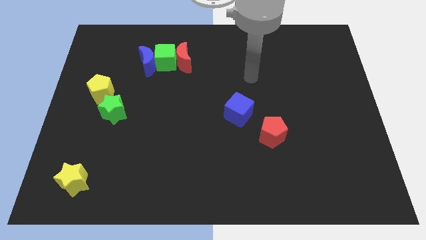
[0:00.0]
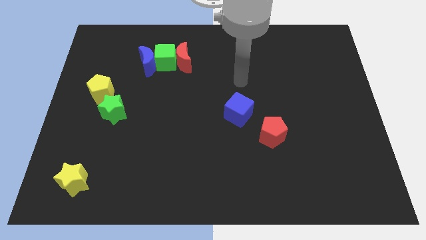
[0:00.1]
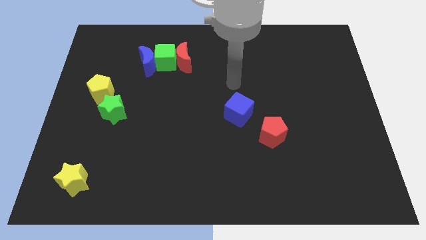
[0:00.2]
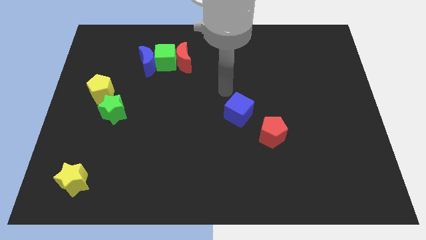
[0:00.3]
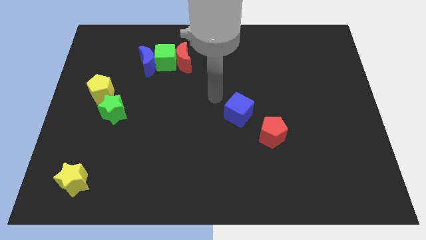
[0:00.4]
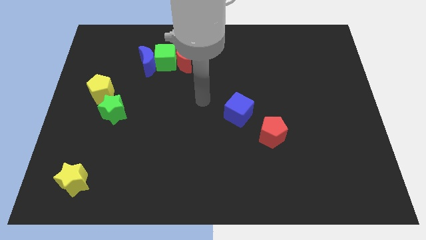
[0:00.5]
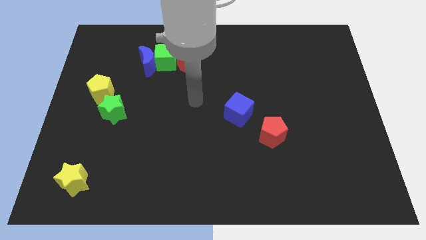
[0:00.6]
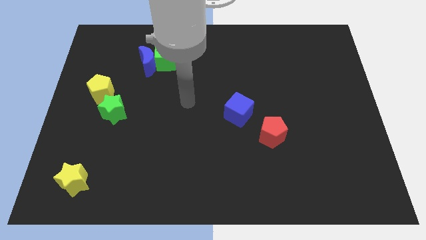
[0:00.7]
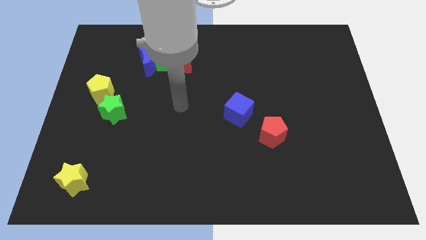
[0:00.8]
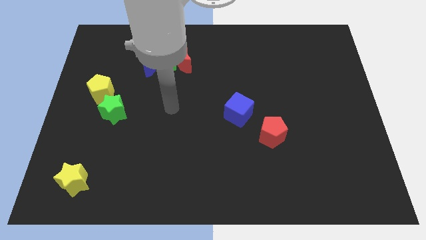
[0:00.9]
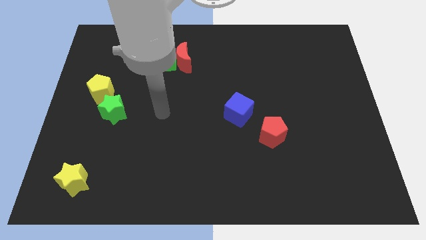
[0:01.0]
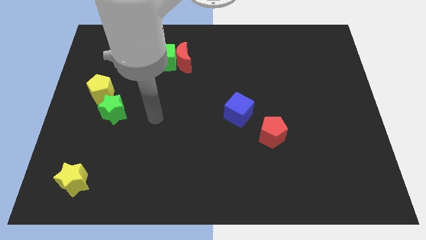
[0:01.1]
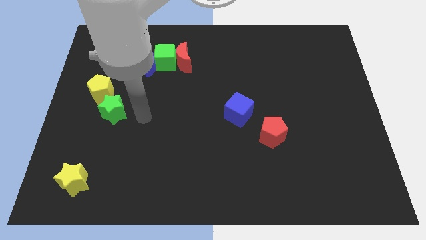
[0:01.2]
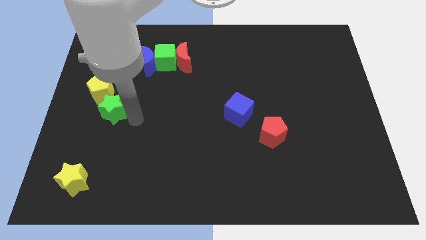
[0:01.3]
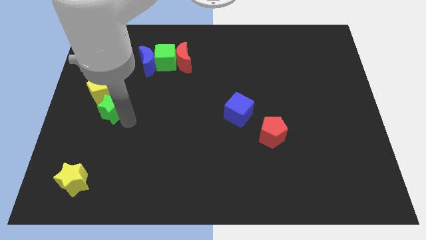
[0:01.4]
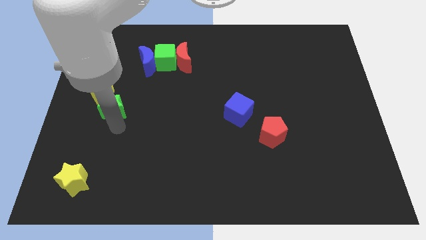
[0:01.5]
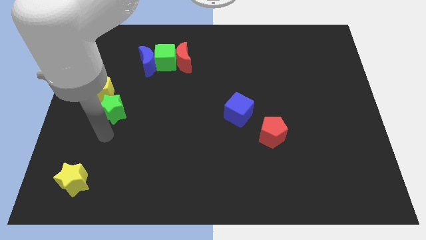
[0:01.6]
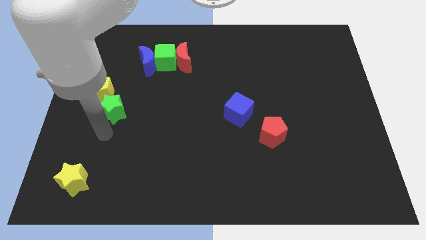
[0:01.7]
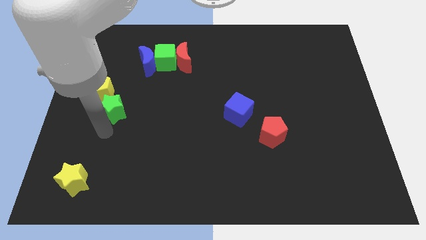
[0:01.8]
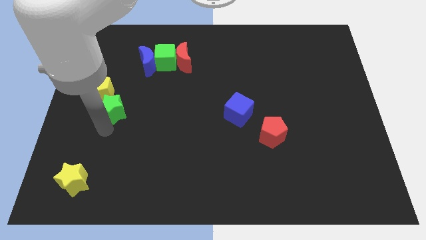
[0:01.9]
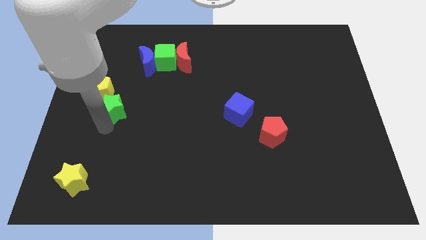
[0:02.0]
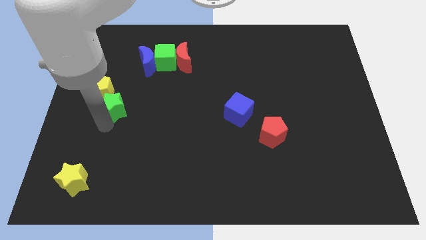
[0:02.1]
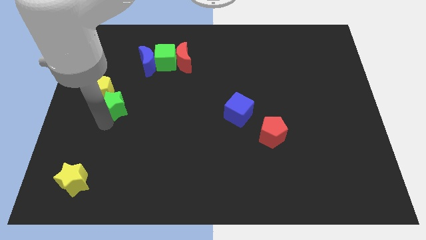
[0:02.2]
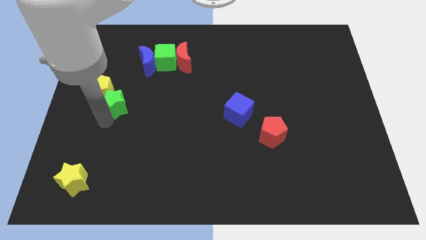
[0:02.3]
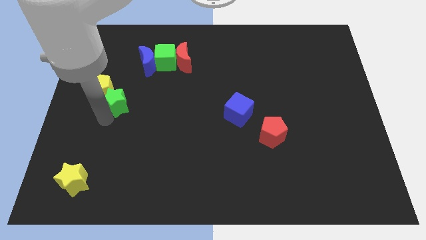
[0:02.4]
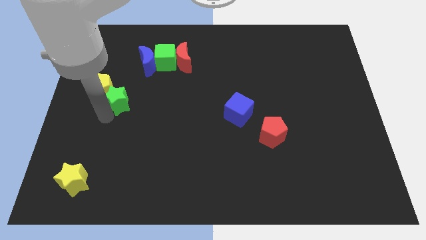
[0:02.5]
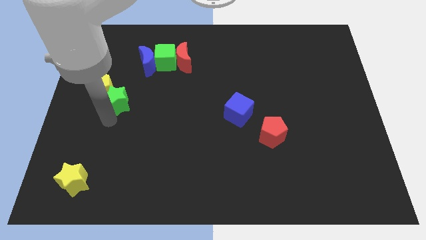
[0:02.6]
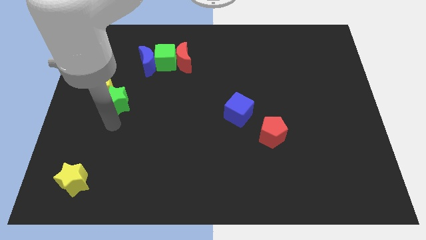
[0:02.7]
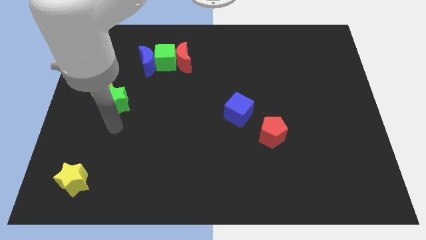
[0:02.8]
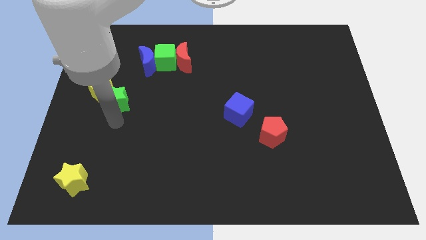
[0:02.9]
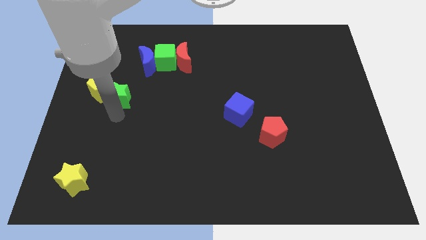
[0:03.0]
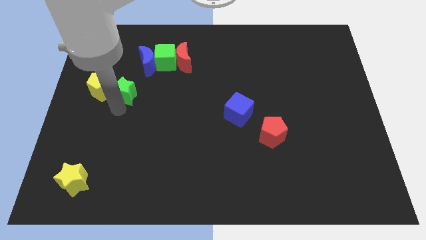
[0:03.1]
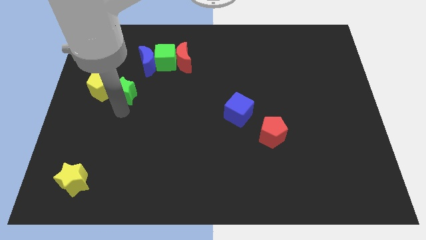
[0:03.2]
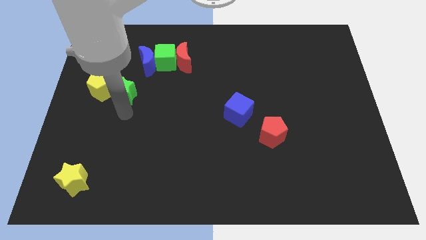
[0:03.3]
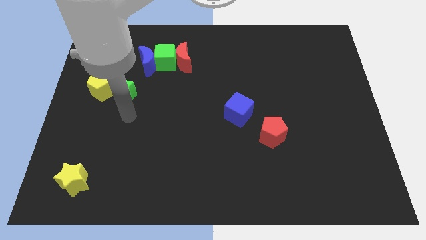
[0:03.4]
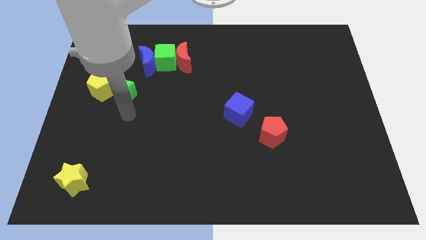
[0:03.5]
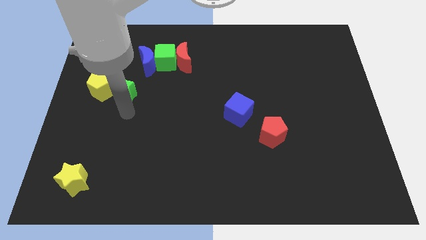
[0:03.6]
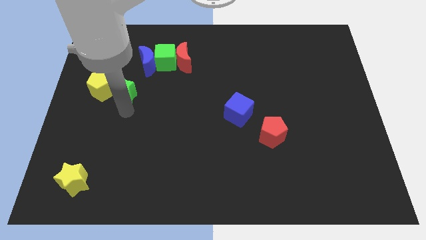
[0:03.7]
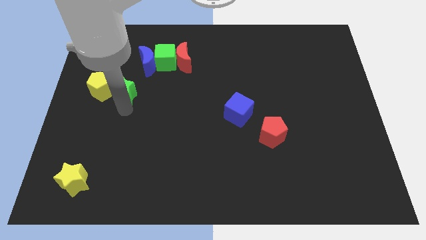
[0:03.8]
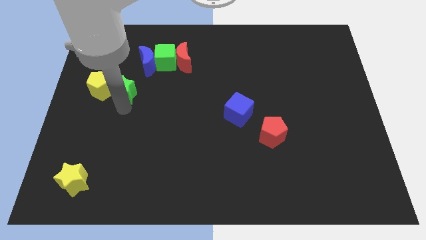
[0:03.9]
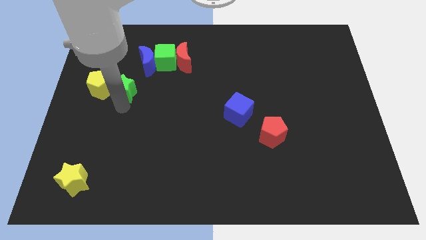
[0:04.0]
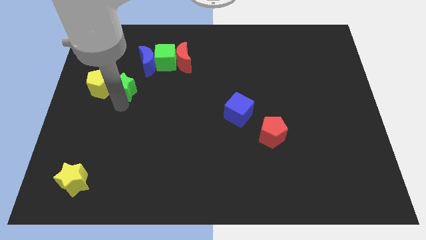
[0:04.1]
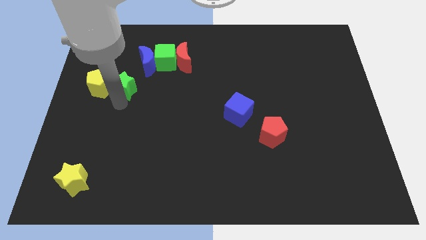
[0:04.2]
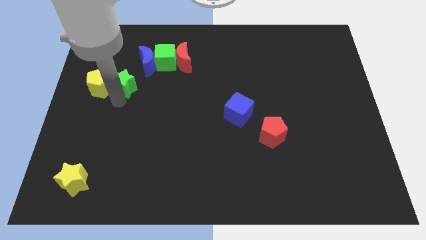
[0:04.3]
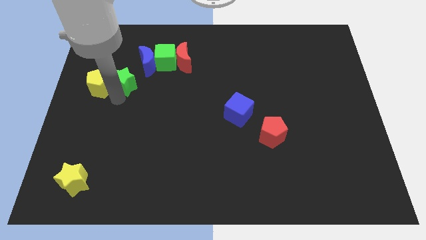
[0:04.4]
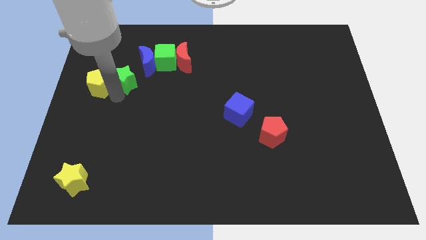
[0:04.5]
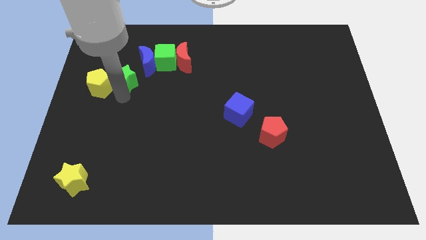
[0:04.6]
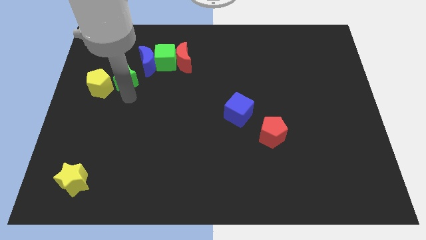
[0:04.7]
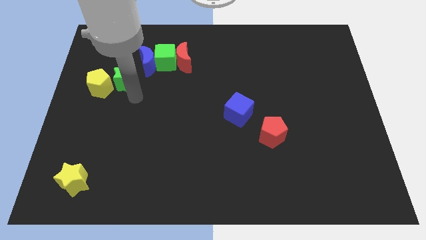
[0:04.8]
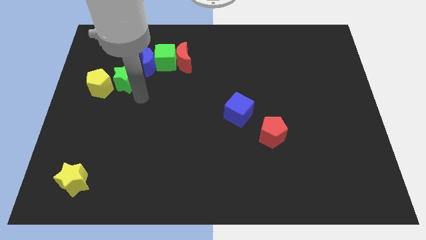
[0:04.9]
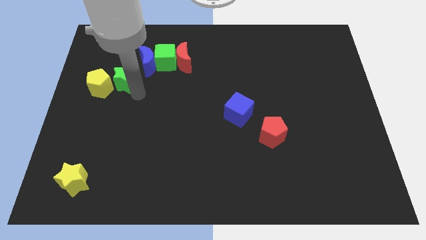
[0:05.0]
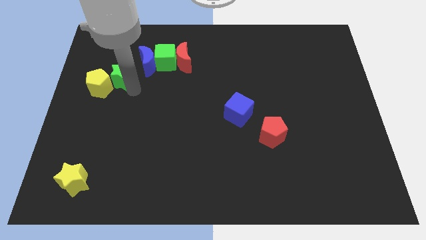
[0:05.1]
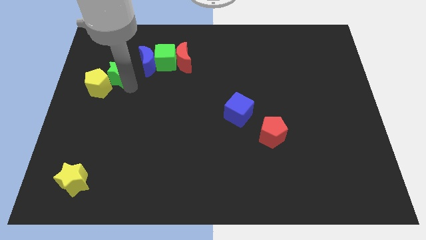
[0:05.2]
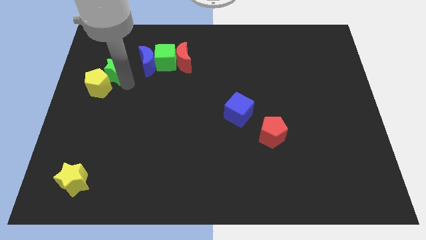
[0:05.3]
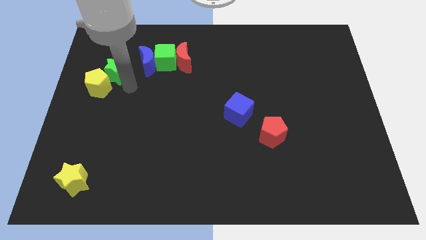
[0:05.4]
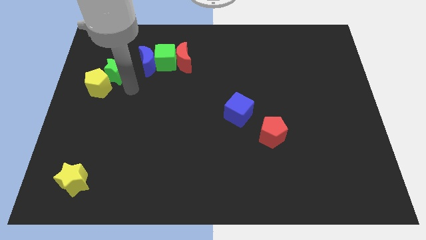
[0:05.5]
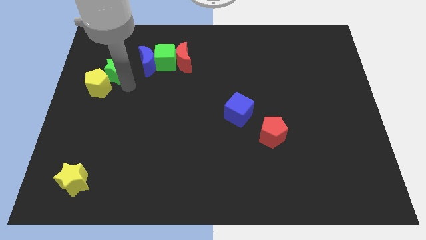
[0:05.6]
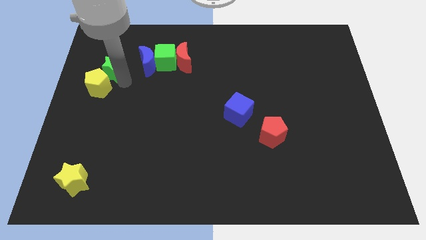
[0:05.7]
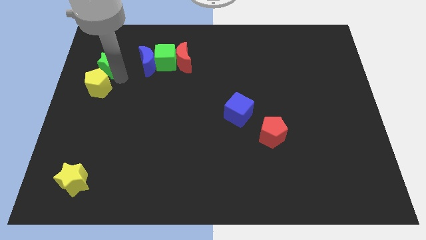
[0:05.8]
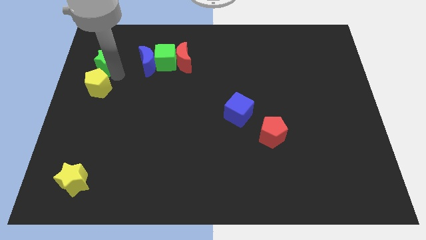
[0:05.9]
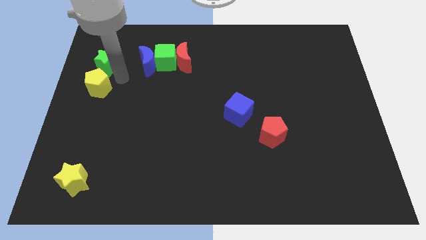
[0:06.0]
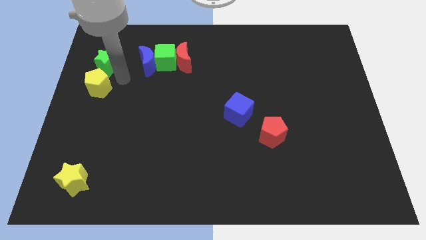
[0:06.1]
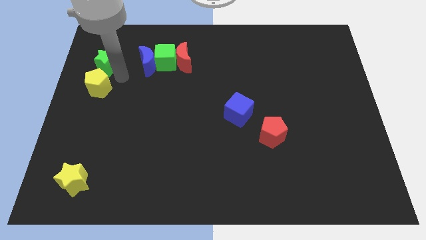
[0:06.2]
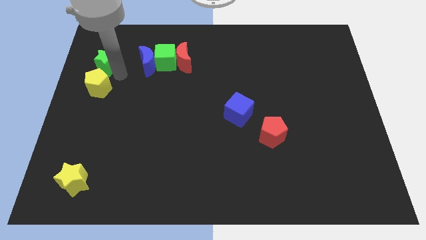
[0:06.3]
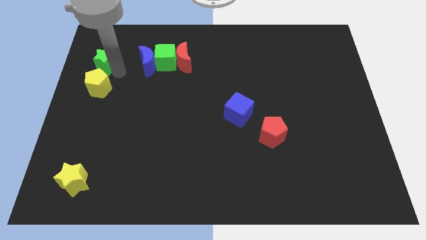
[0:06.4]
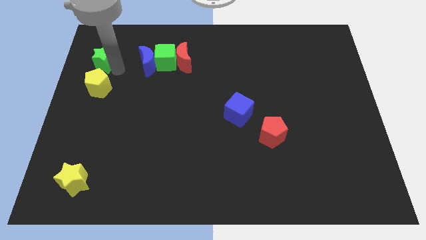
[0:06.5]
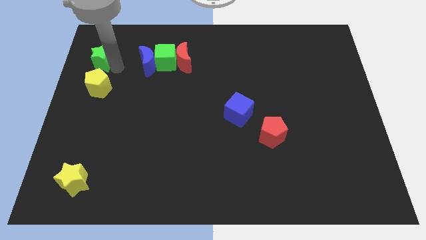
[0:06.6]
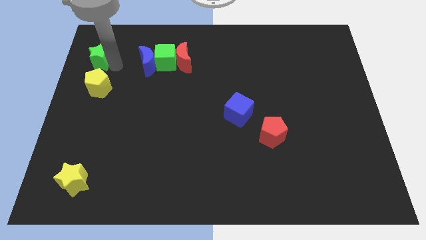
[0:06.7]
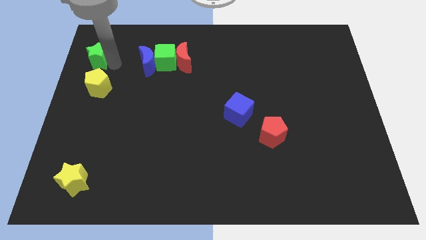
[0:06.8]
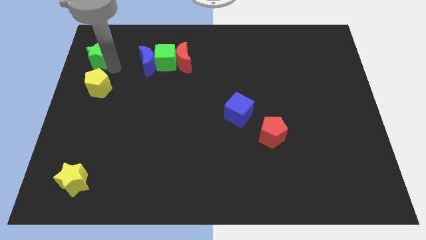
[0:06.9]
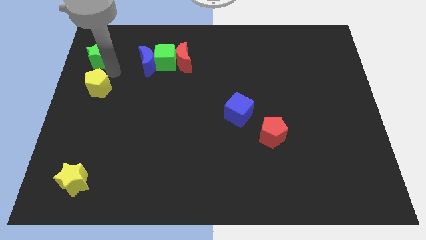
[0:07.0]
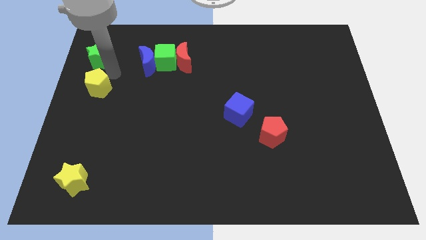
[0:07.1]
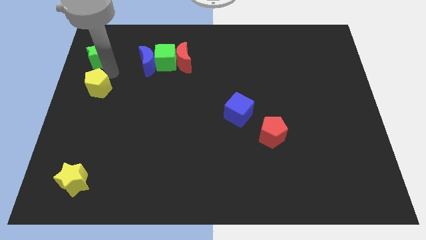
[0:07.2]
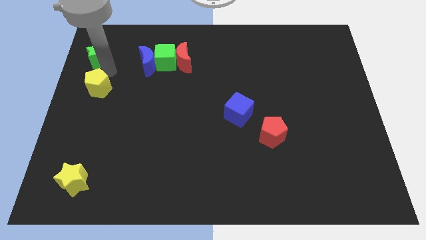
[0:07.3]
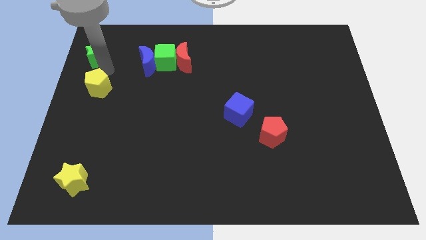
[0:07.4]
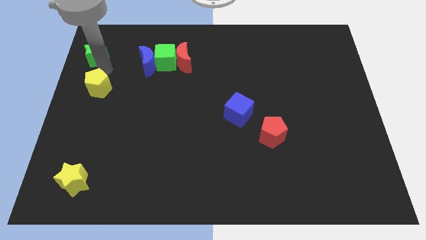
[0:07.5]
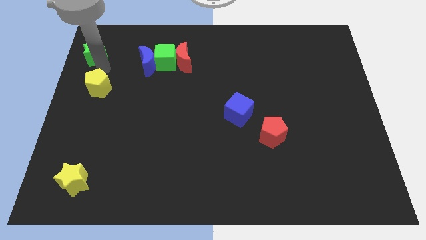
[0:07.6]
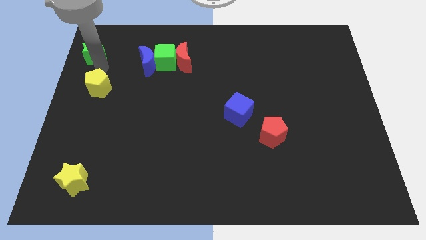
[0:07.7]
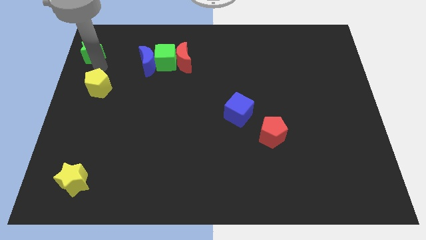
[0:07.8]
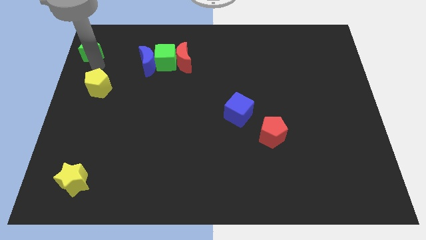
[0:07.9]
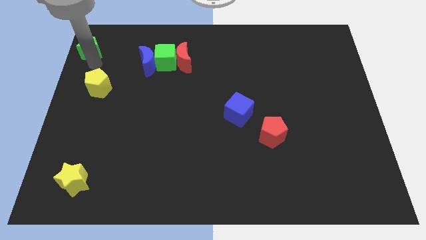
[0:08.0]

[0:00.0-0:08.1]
push the green star to the top left
